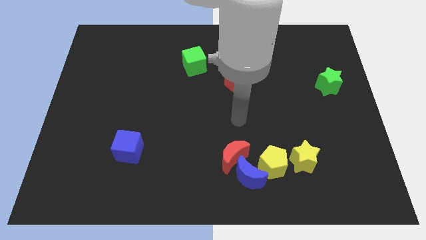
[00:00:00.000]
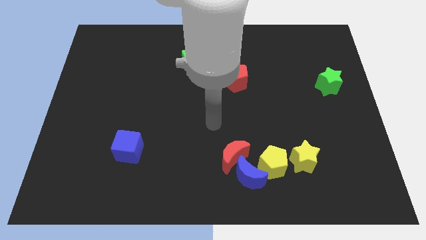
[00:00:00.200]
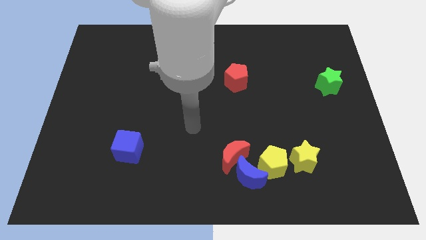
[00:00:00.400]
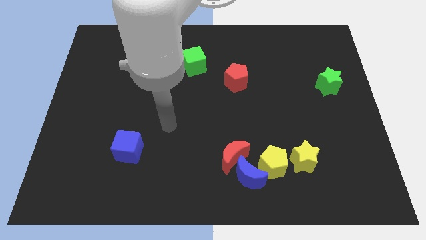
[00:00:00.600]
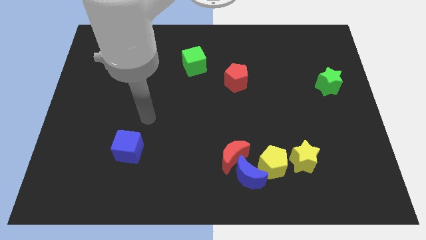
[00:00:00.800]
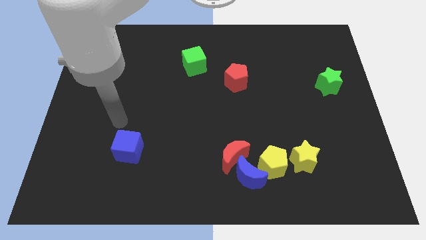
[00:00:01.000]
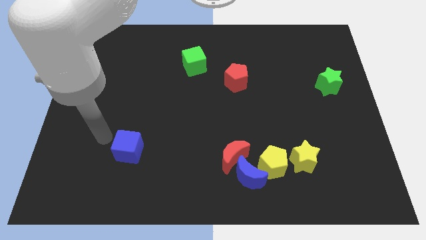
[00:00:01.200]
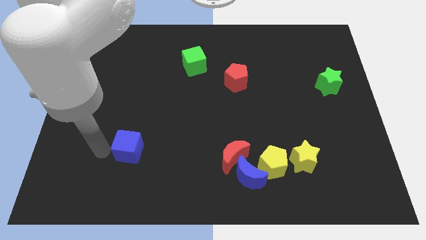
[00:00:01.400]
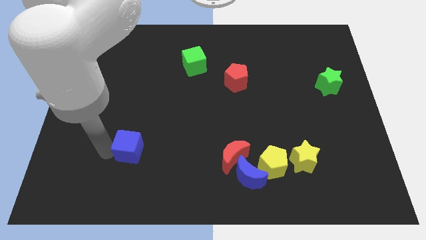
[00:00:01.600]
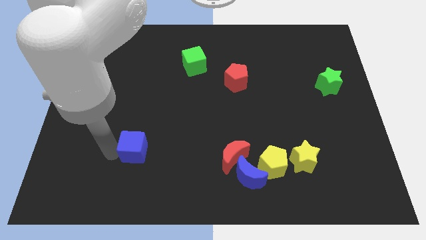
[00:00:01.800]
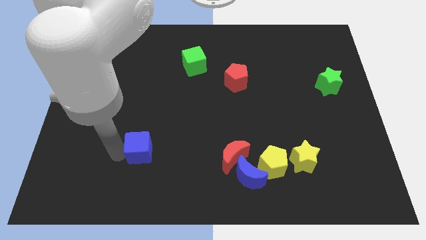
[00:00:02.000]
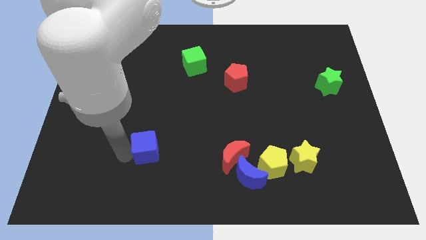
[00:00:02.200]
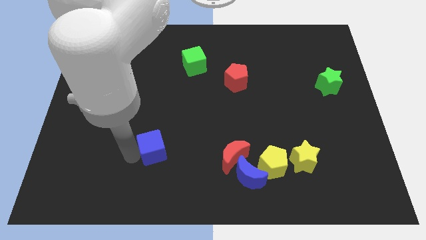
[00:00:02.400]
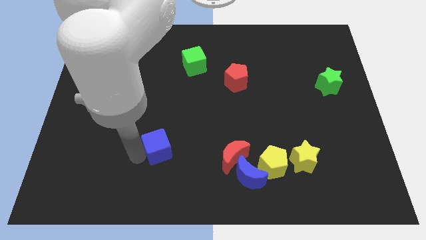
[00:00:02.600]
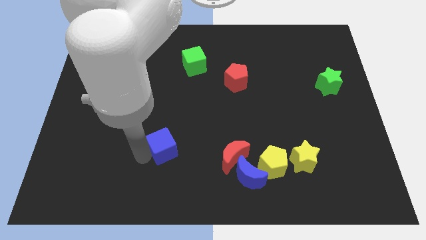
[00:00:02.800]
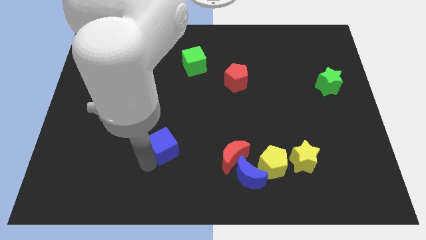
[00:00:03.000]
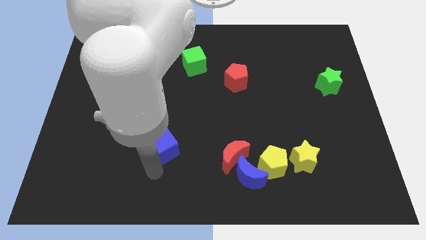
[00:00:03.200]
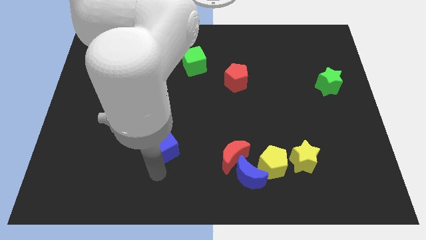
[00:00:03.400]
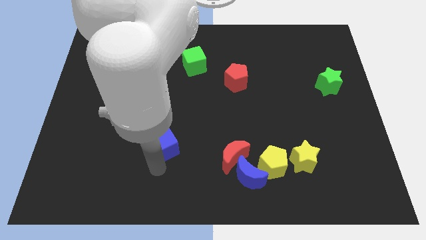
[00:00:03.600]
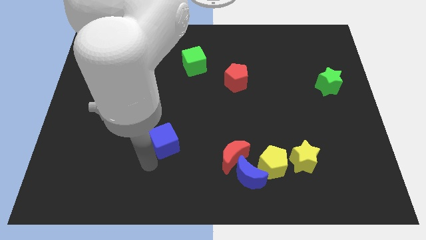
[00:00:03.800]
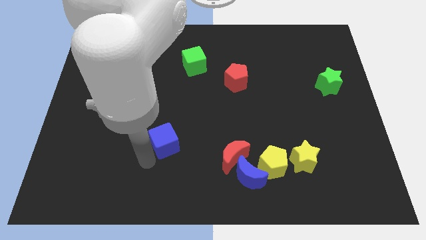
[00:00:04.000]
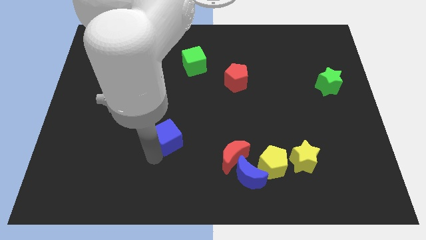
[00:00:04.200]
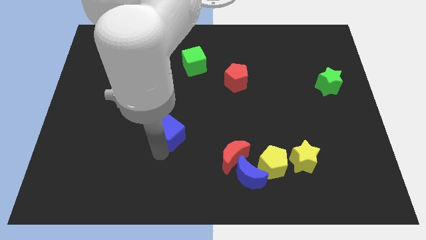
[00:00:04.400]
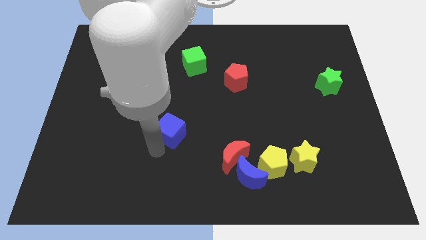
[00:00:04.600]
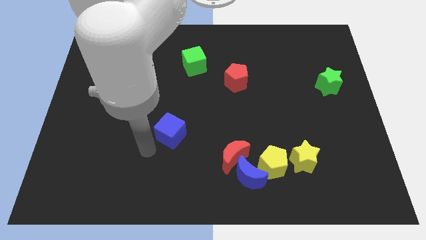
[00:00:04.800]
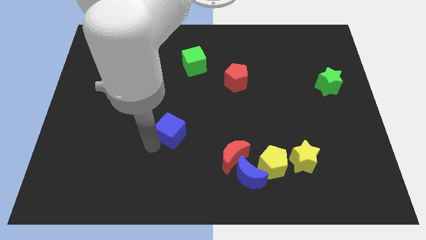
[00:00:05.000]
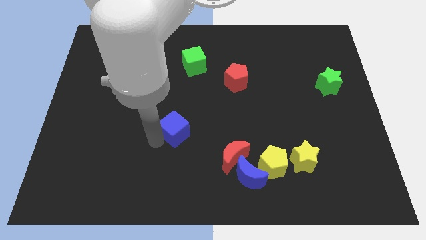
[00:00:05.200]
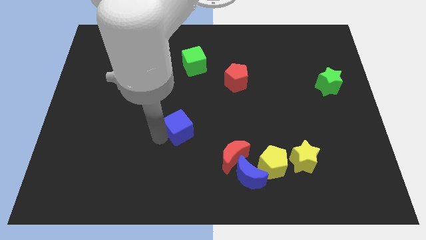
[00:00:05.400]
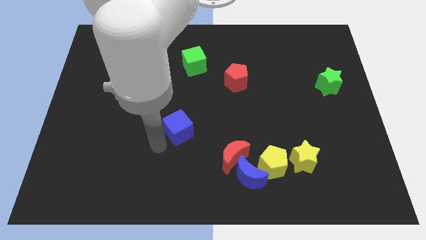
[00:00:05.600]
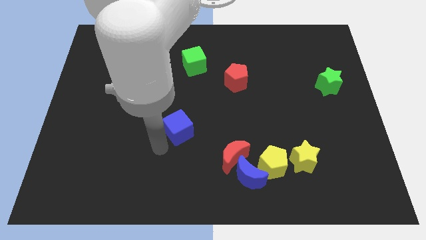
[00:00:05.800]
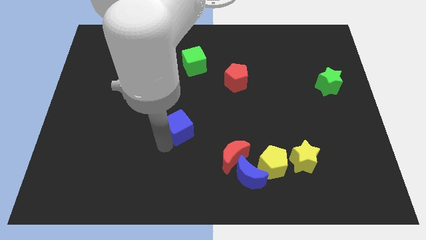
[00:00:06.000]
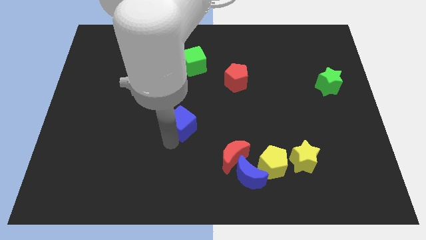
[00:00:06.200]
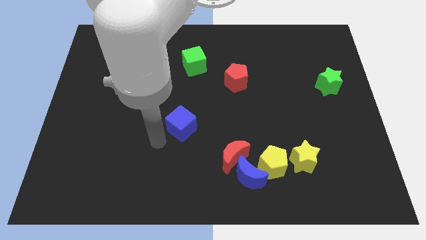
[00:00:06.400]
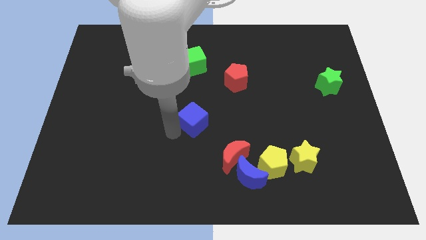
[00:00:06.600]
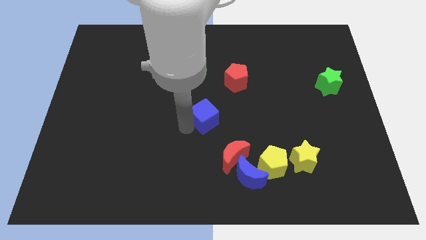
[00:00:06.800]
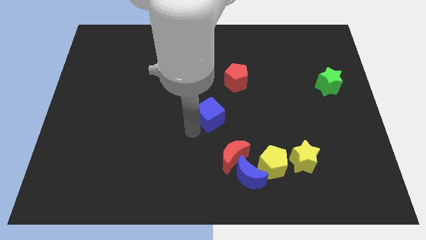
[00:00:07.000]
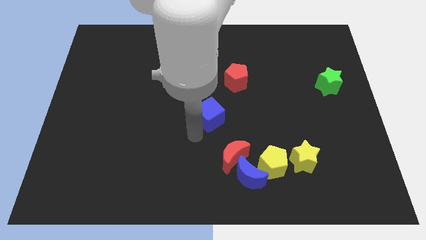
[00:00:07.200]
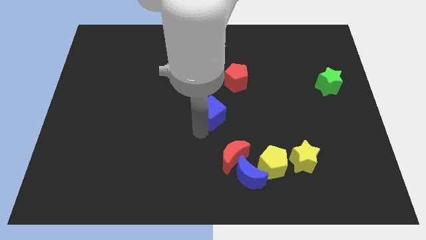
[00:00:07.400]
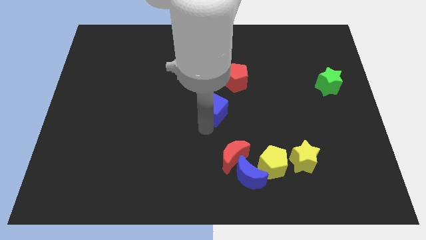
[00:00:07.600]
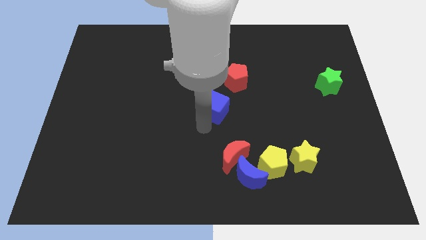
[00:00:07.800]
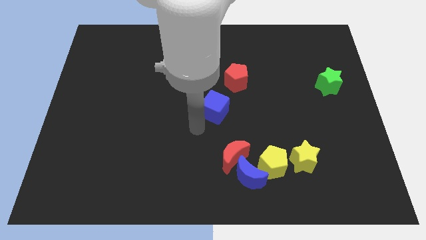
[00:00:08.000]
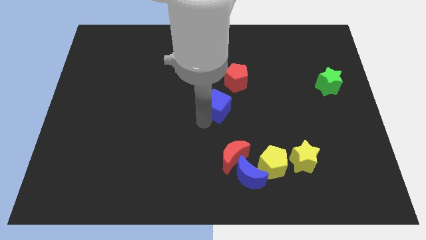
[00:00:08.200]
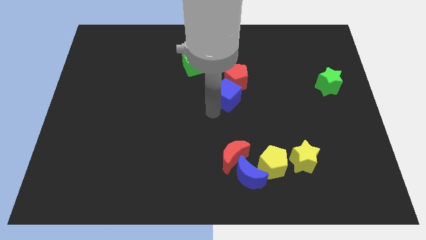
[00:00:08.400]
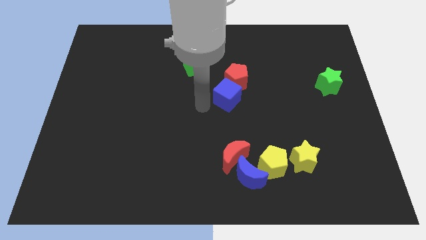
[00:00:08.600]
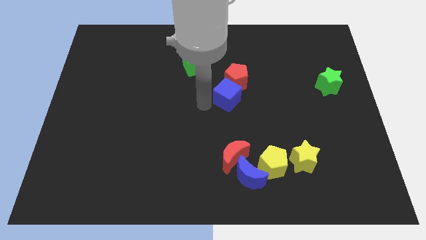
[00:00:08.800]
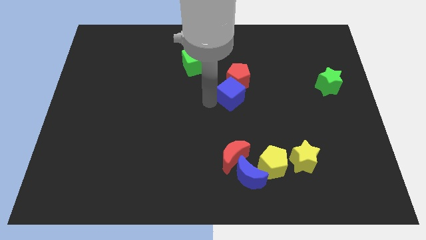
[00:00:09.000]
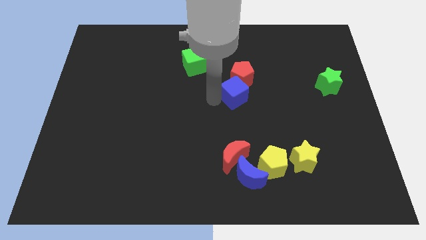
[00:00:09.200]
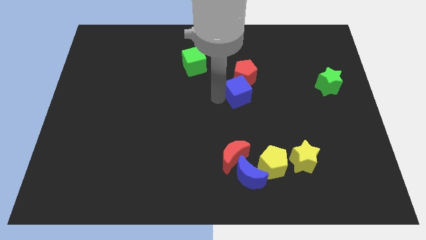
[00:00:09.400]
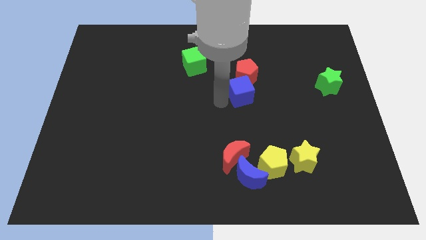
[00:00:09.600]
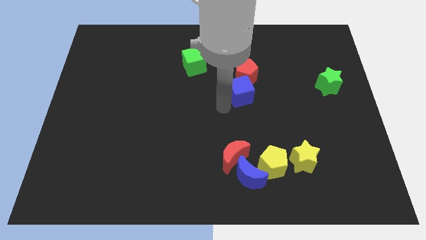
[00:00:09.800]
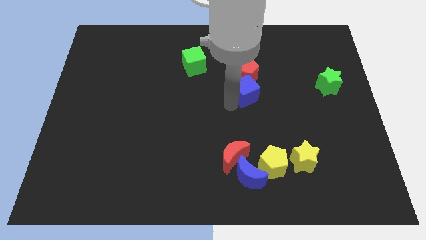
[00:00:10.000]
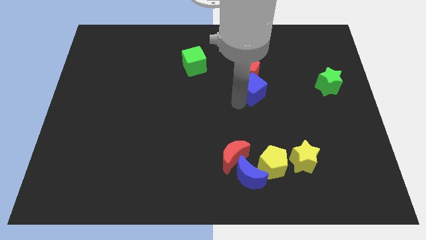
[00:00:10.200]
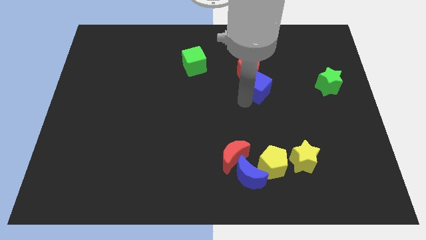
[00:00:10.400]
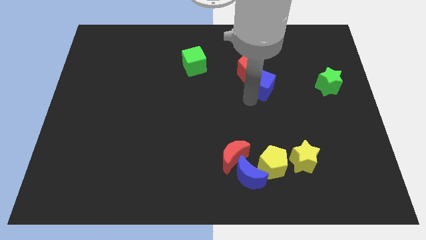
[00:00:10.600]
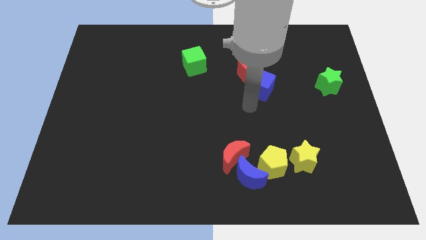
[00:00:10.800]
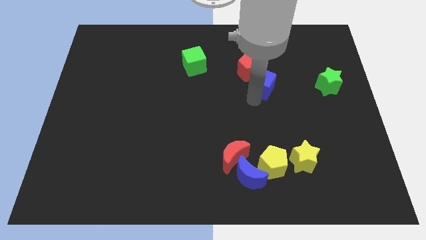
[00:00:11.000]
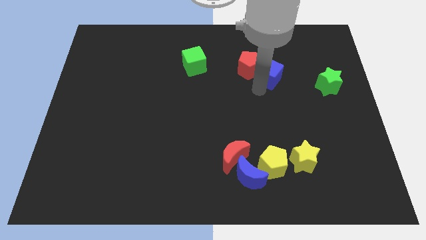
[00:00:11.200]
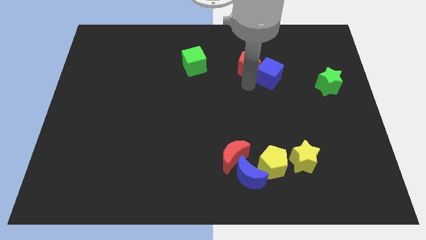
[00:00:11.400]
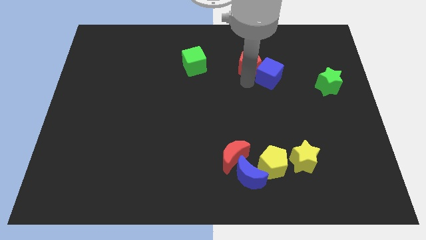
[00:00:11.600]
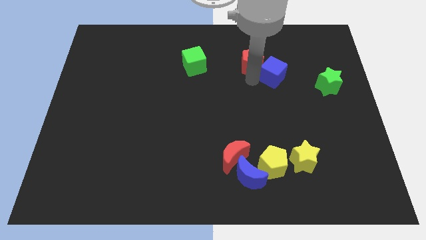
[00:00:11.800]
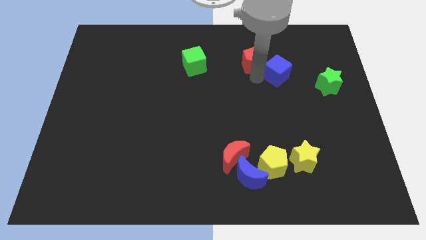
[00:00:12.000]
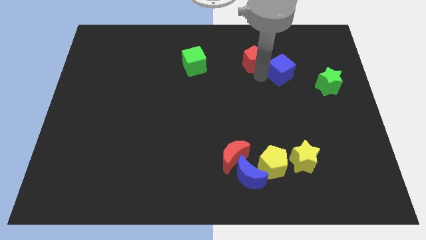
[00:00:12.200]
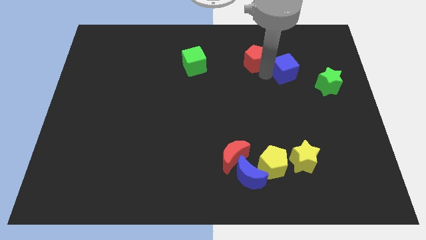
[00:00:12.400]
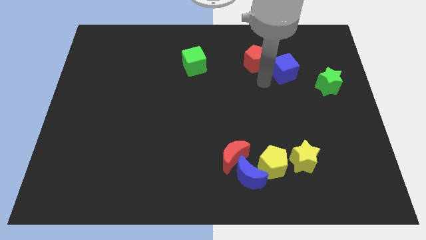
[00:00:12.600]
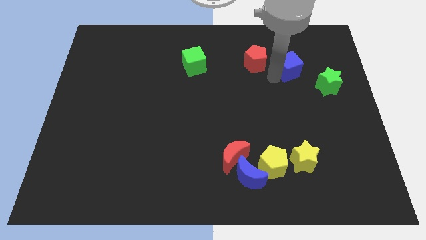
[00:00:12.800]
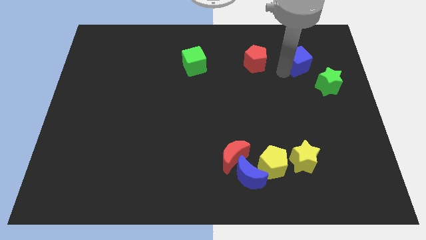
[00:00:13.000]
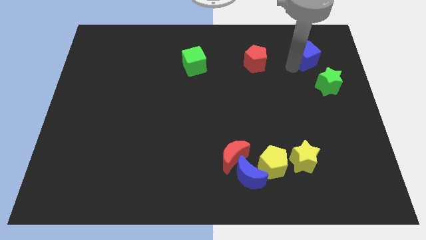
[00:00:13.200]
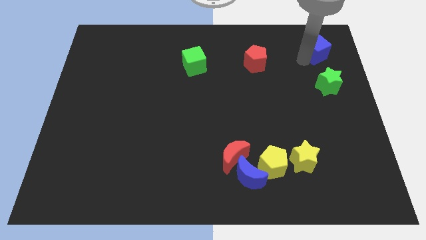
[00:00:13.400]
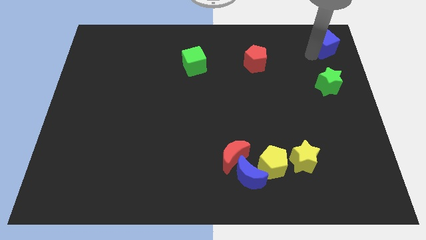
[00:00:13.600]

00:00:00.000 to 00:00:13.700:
put the blue cube to the top right corner
